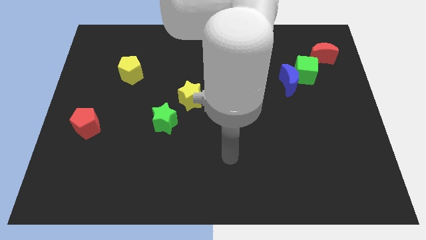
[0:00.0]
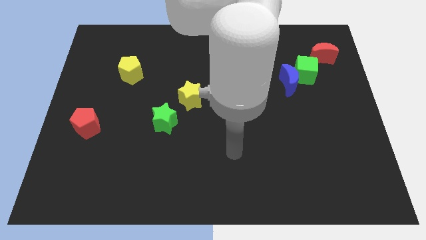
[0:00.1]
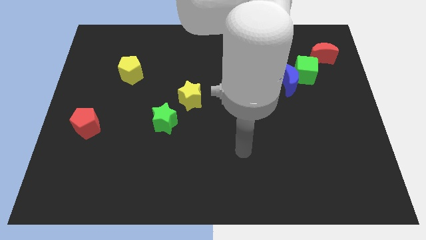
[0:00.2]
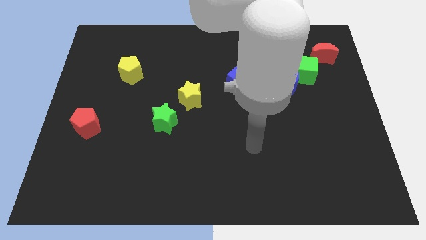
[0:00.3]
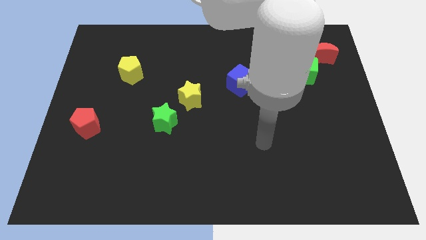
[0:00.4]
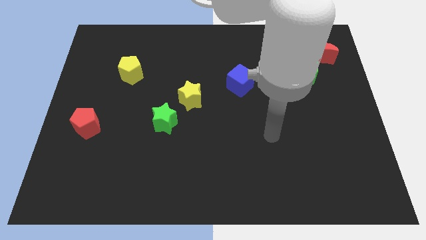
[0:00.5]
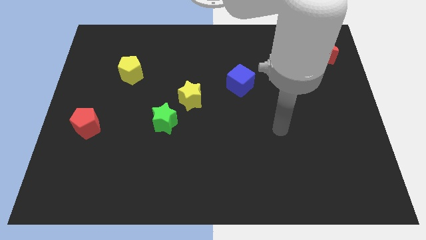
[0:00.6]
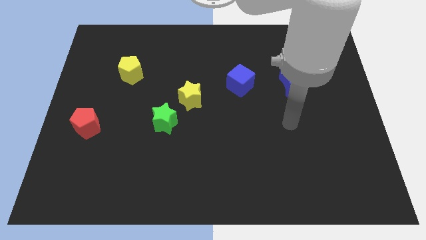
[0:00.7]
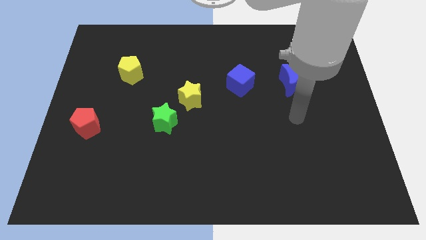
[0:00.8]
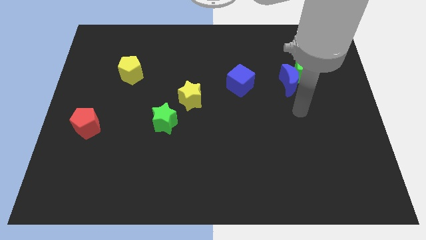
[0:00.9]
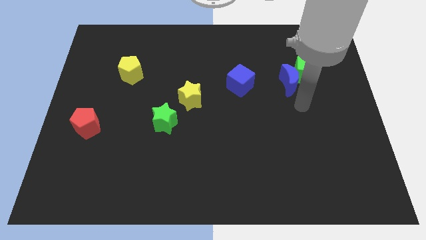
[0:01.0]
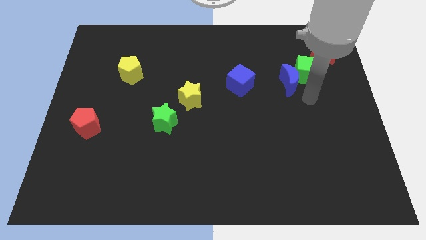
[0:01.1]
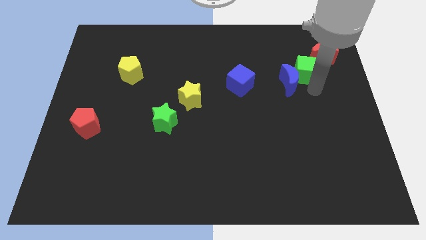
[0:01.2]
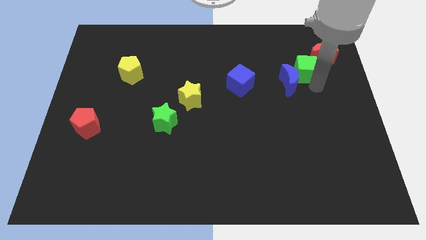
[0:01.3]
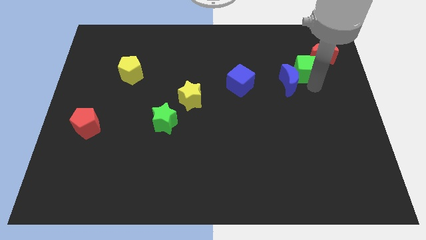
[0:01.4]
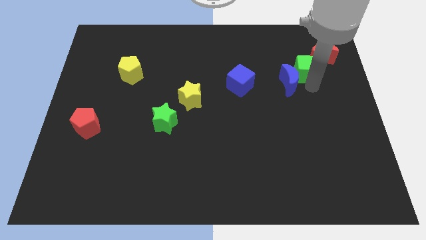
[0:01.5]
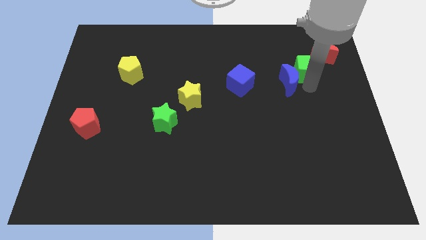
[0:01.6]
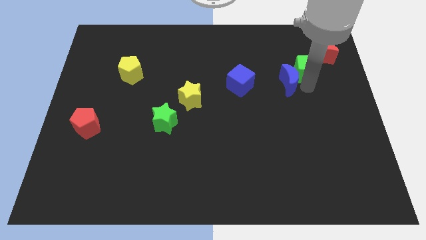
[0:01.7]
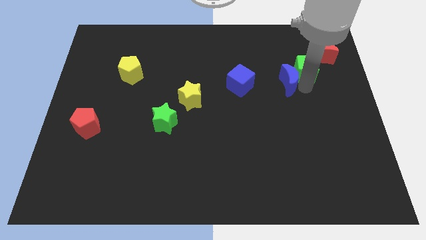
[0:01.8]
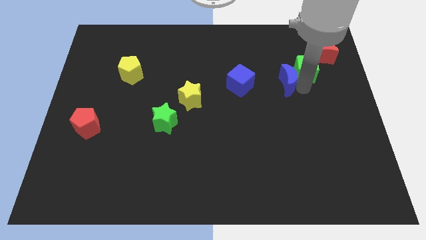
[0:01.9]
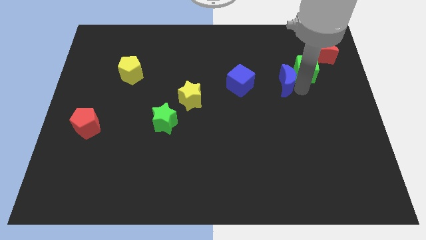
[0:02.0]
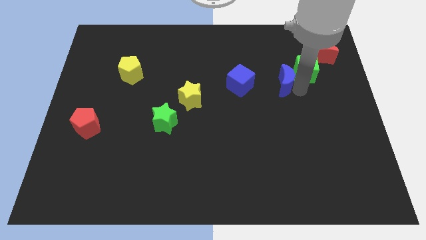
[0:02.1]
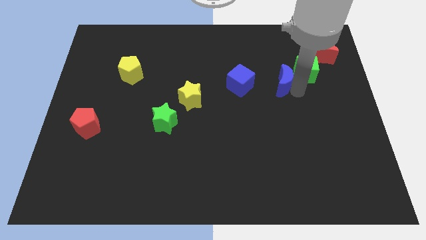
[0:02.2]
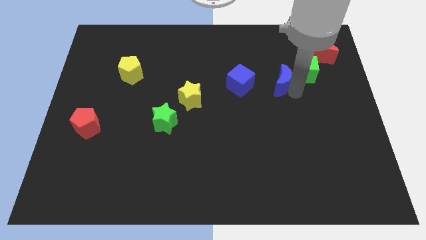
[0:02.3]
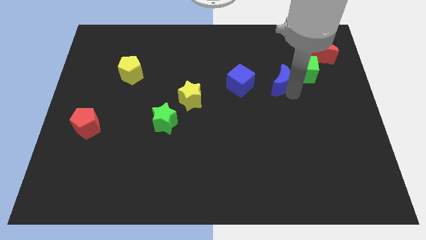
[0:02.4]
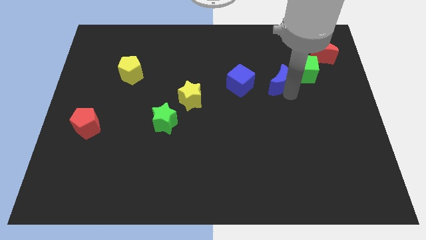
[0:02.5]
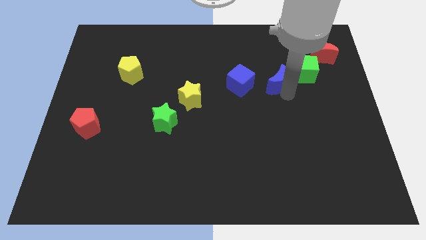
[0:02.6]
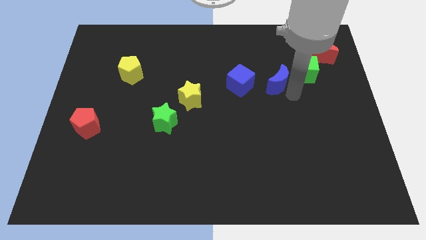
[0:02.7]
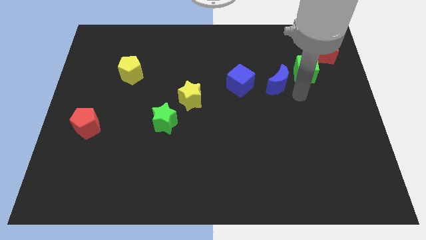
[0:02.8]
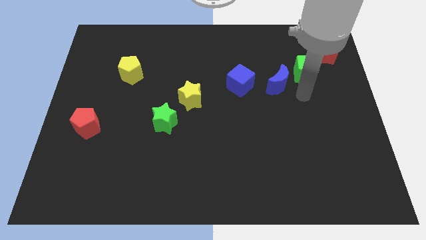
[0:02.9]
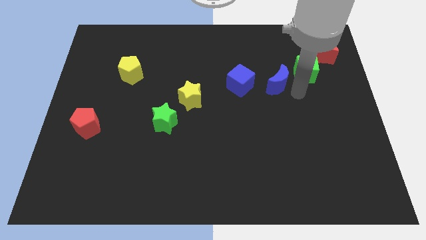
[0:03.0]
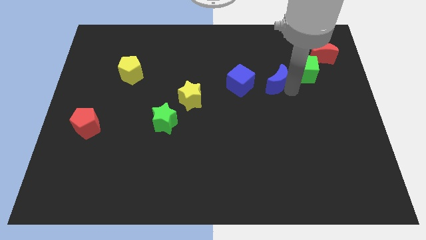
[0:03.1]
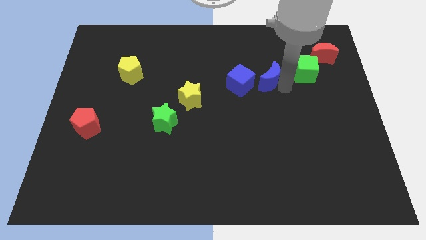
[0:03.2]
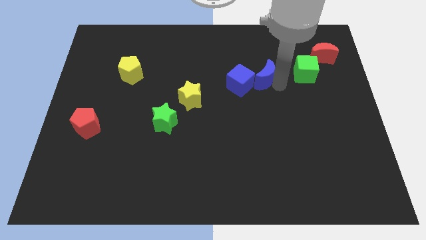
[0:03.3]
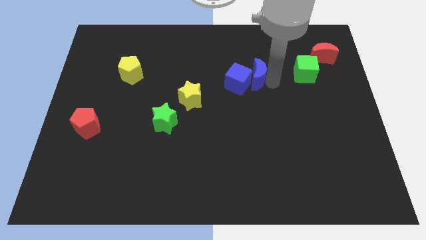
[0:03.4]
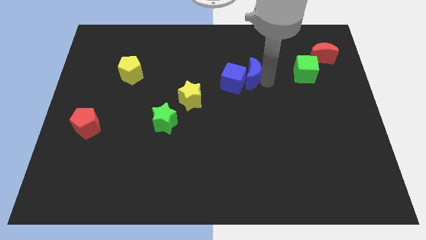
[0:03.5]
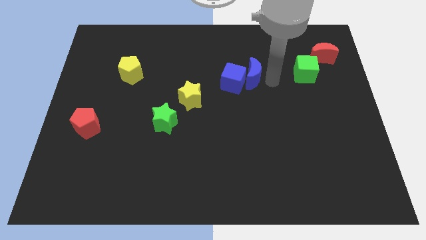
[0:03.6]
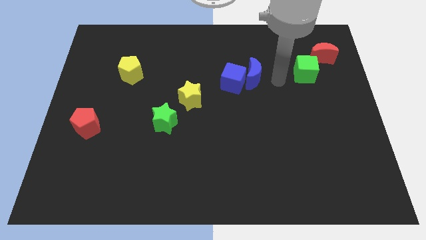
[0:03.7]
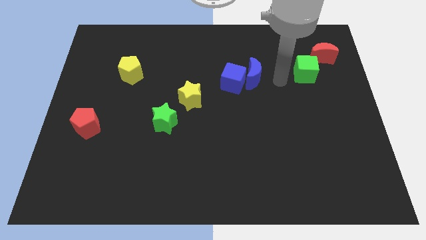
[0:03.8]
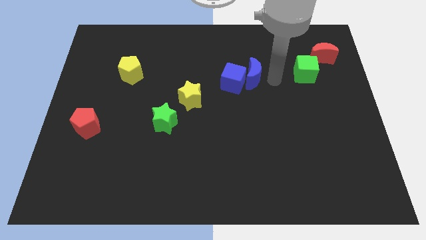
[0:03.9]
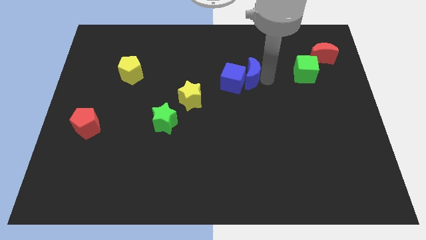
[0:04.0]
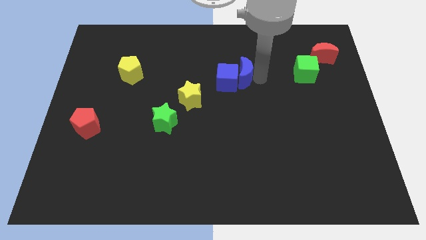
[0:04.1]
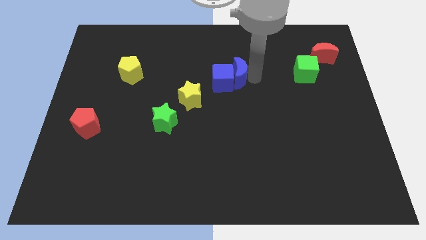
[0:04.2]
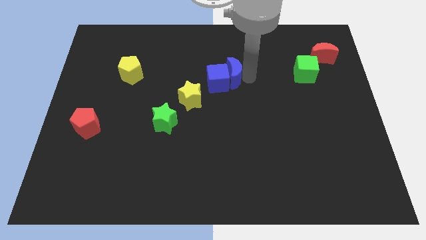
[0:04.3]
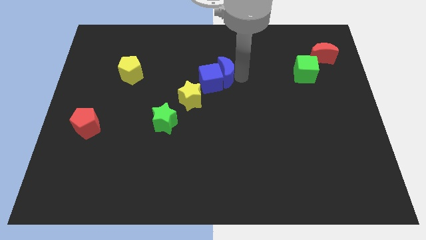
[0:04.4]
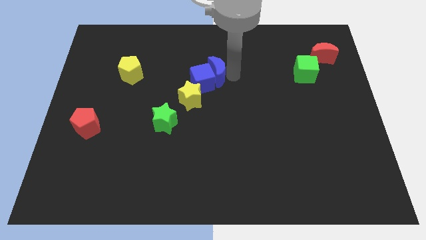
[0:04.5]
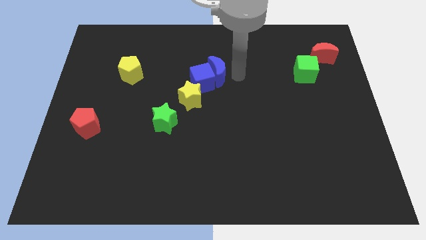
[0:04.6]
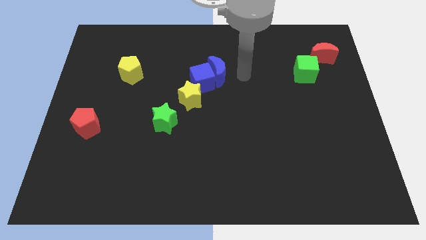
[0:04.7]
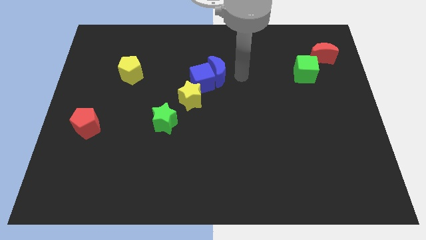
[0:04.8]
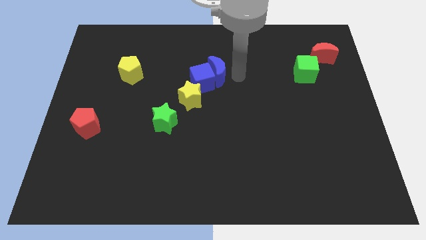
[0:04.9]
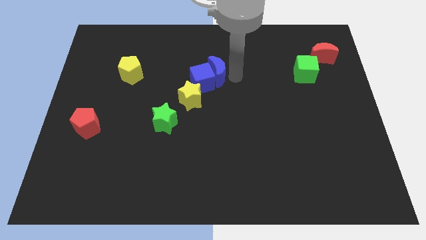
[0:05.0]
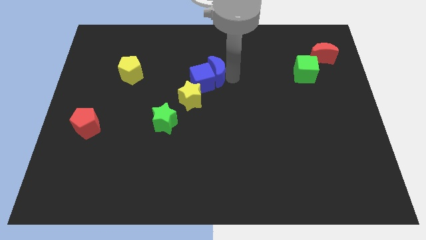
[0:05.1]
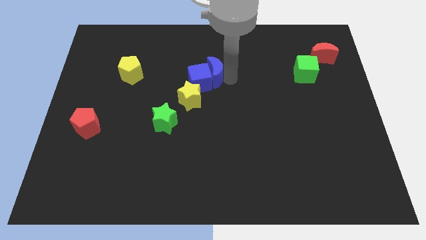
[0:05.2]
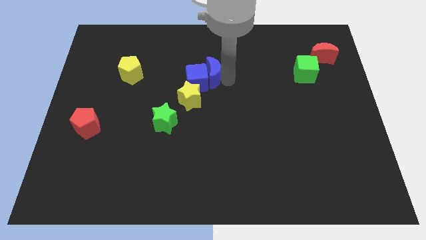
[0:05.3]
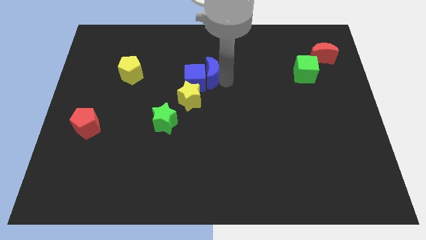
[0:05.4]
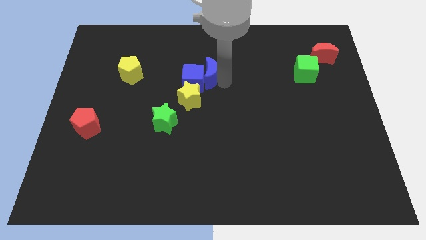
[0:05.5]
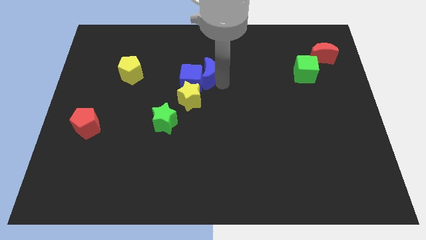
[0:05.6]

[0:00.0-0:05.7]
slide the blue moon to the left

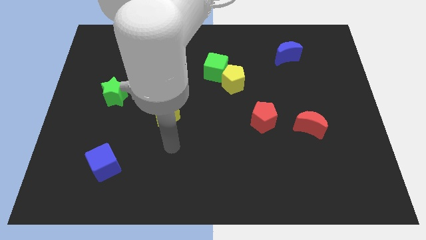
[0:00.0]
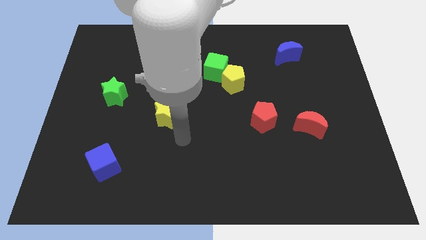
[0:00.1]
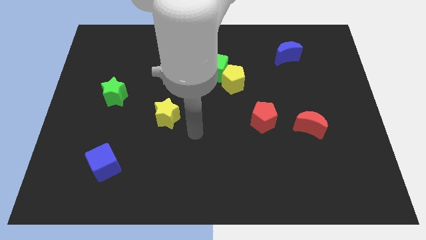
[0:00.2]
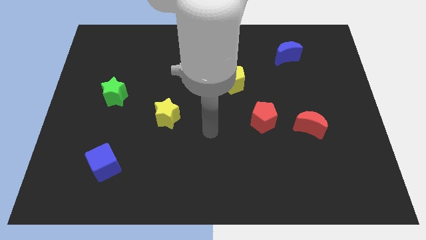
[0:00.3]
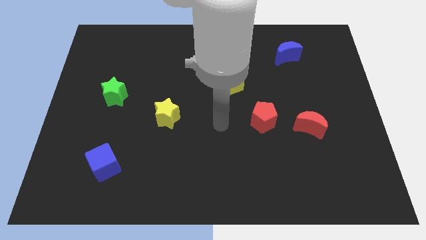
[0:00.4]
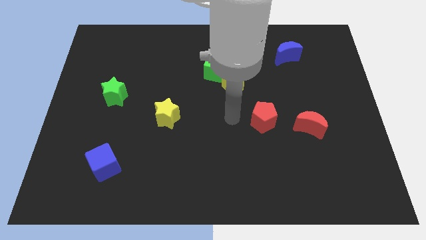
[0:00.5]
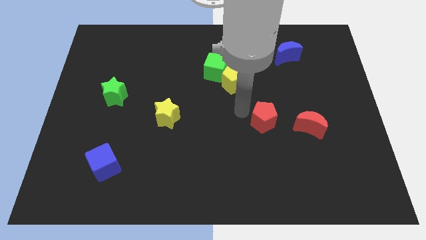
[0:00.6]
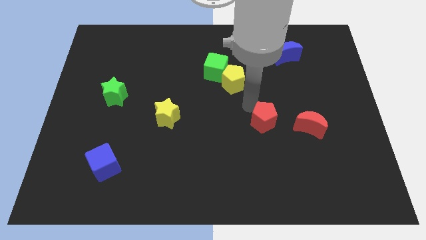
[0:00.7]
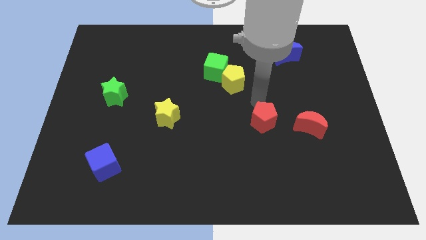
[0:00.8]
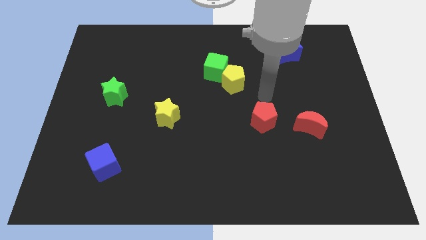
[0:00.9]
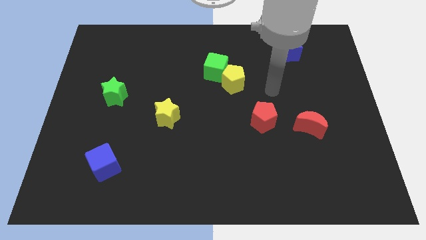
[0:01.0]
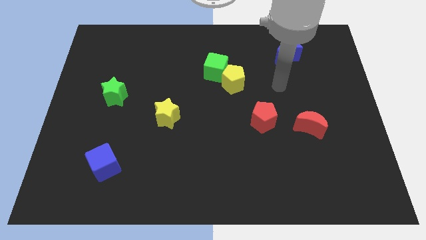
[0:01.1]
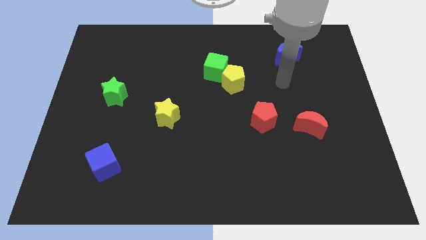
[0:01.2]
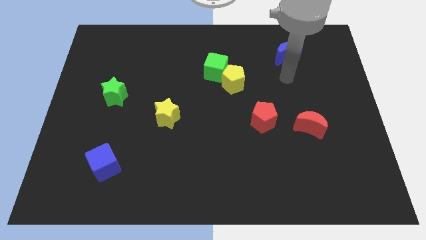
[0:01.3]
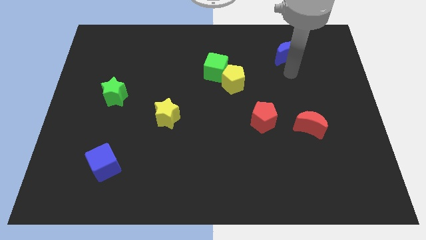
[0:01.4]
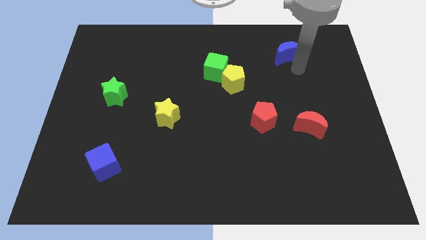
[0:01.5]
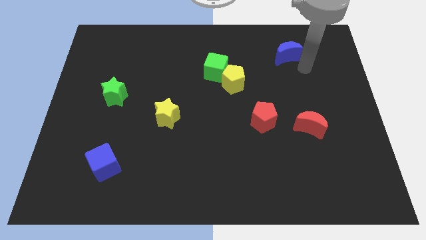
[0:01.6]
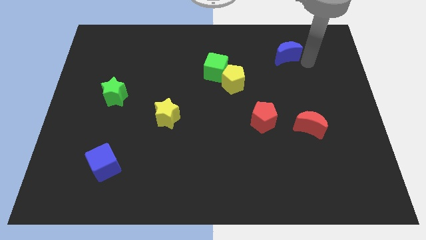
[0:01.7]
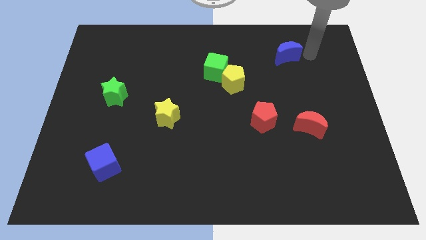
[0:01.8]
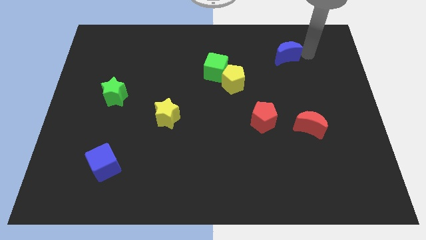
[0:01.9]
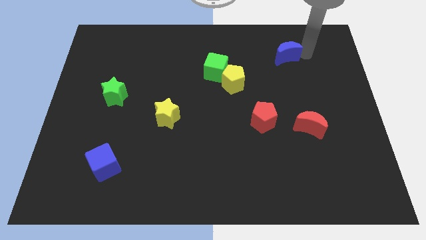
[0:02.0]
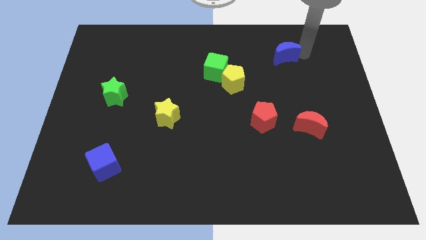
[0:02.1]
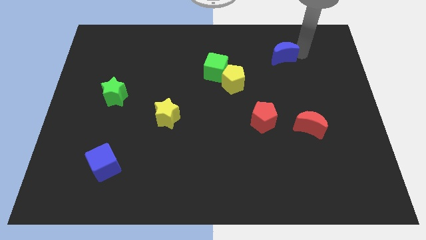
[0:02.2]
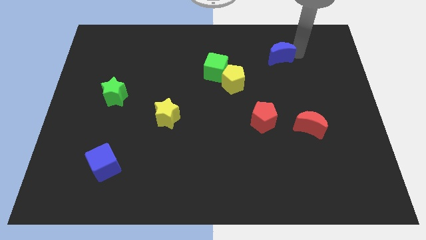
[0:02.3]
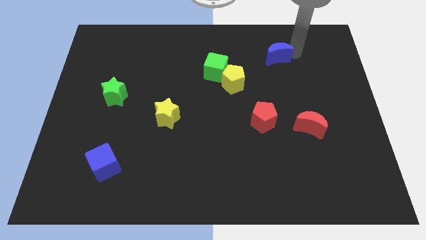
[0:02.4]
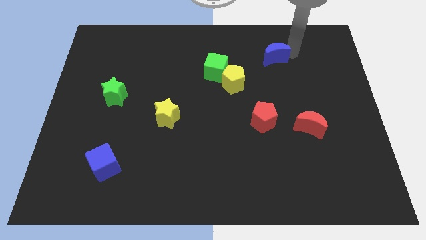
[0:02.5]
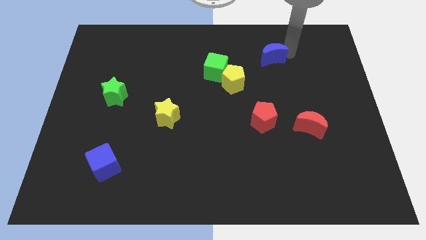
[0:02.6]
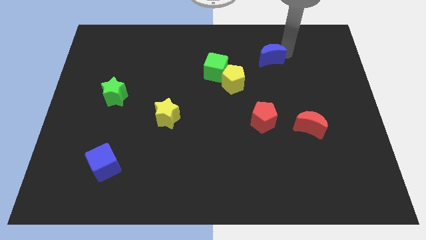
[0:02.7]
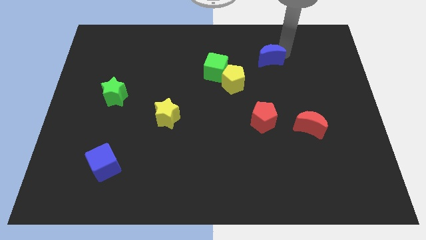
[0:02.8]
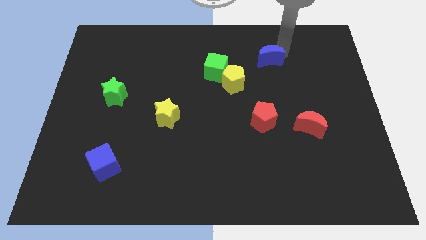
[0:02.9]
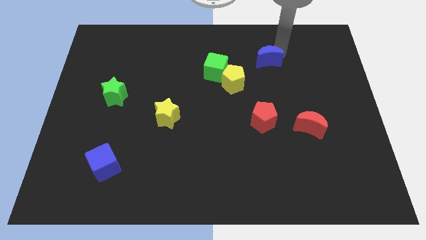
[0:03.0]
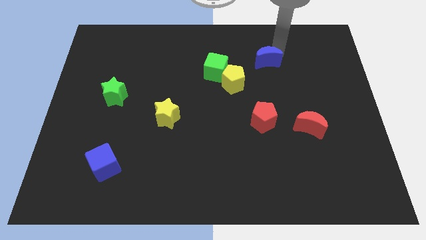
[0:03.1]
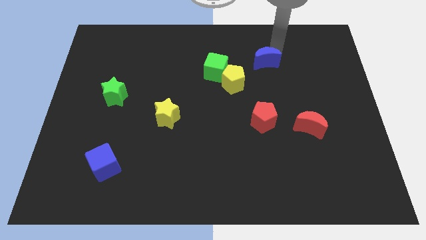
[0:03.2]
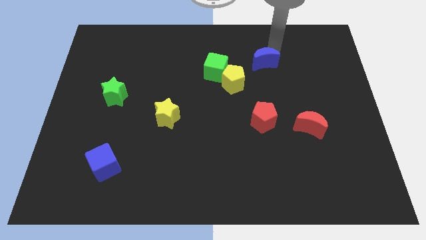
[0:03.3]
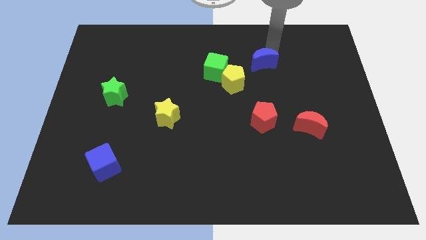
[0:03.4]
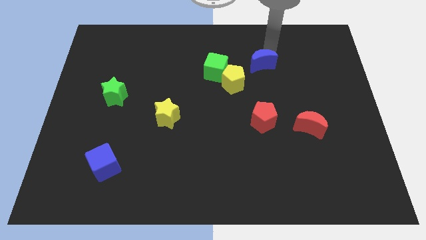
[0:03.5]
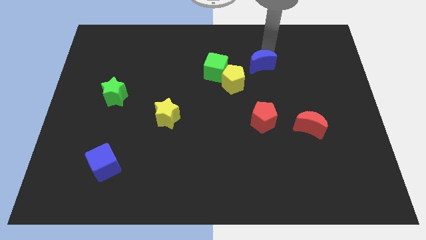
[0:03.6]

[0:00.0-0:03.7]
push the blue moon left a little
